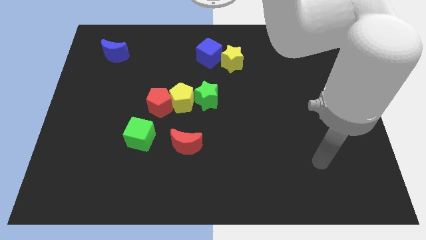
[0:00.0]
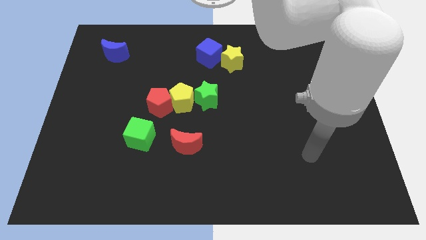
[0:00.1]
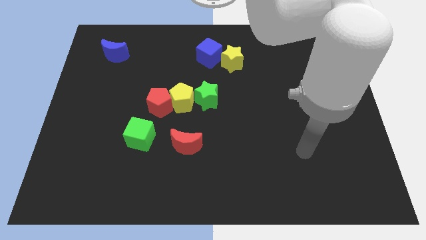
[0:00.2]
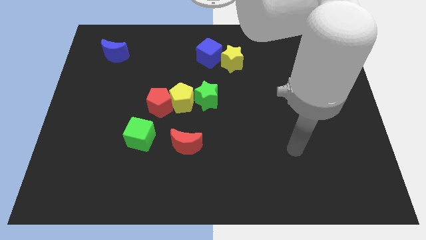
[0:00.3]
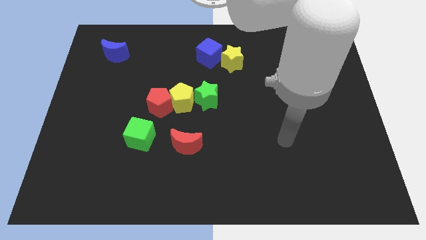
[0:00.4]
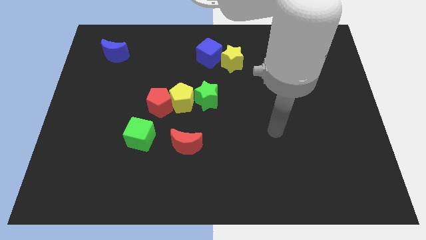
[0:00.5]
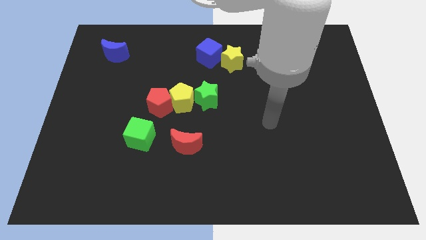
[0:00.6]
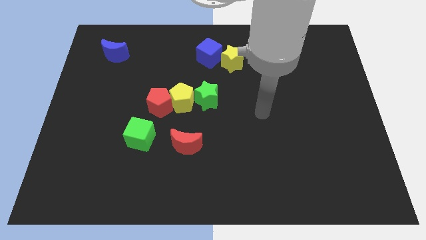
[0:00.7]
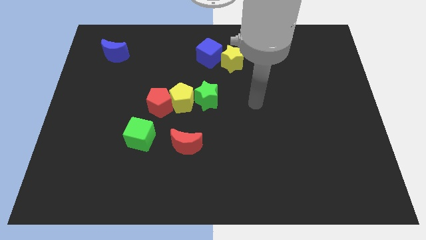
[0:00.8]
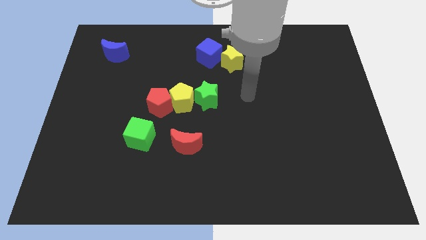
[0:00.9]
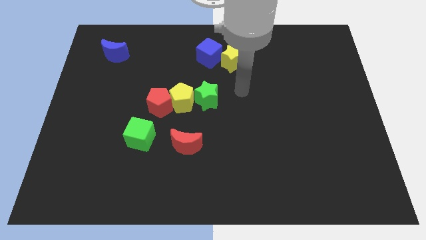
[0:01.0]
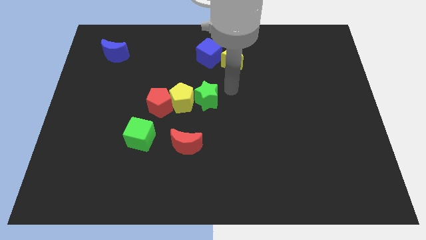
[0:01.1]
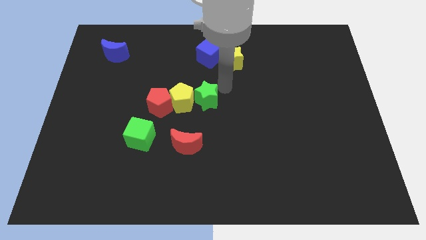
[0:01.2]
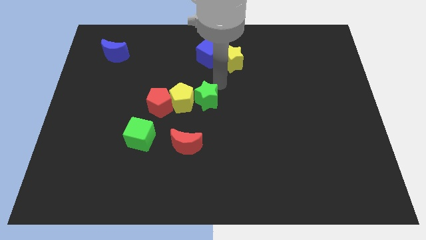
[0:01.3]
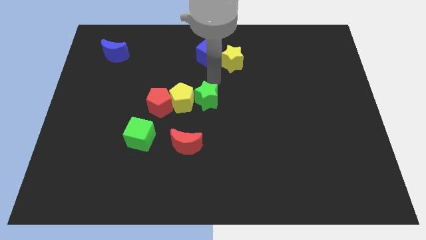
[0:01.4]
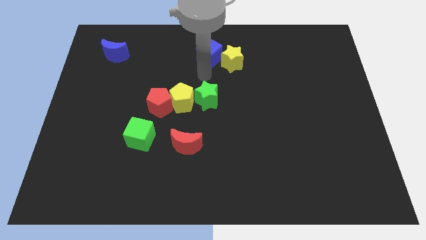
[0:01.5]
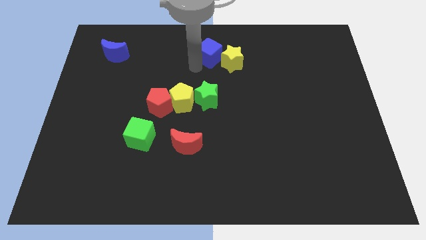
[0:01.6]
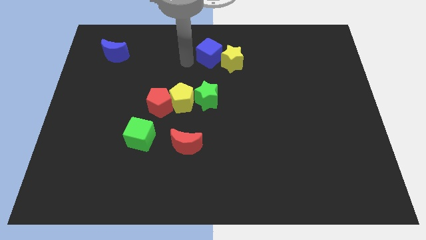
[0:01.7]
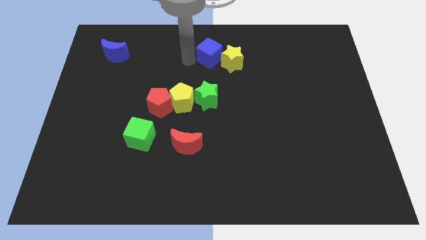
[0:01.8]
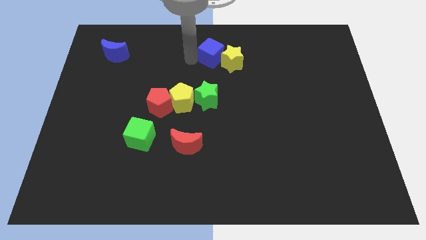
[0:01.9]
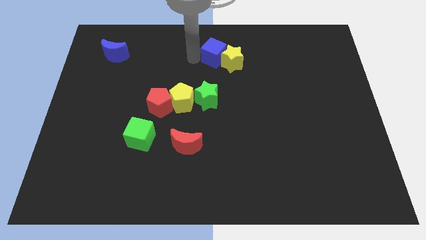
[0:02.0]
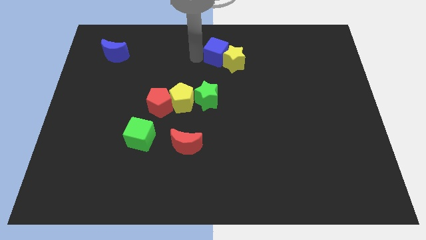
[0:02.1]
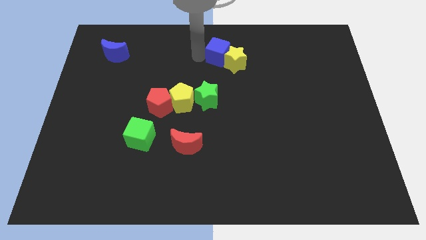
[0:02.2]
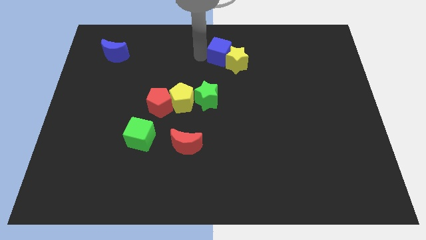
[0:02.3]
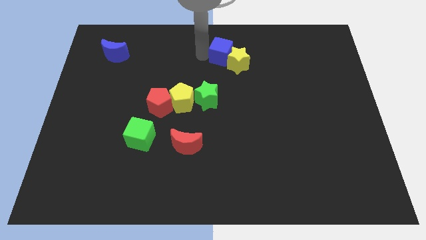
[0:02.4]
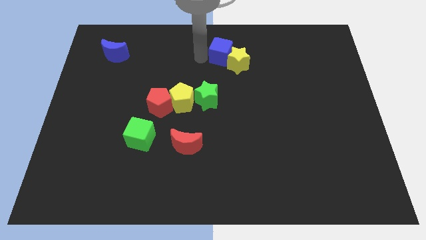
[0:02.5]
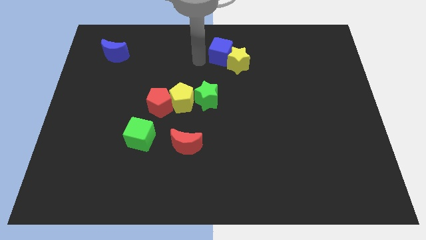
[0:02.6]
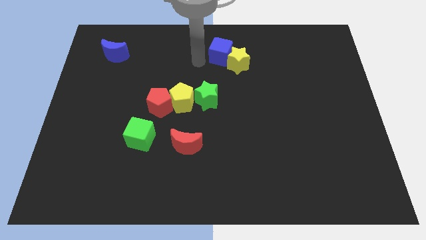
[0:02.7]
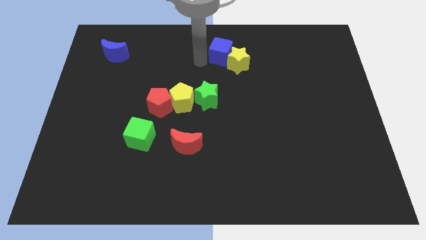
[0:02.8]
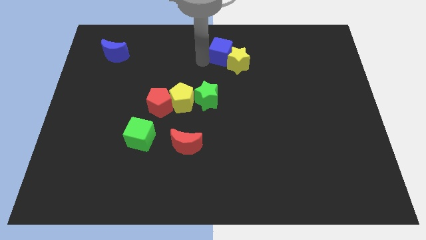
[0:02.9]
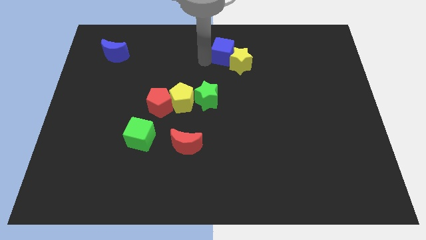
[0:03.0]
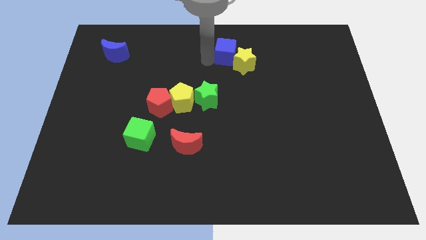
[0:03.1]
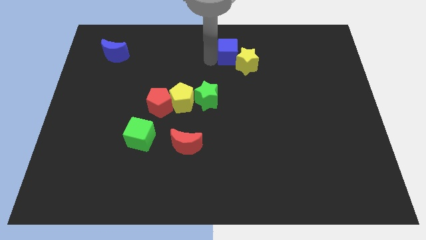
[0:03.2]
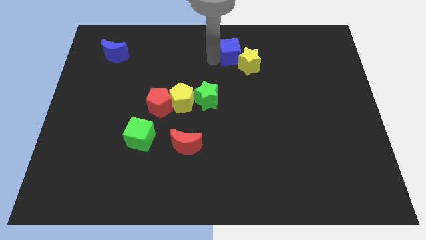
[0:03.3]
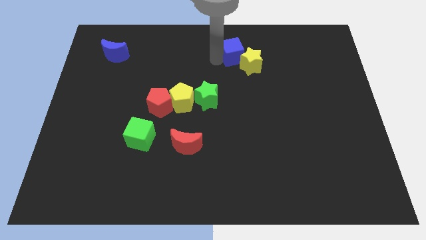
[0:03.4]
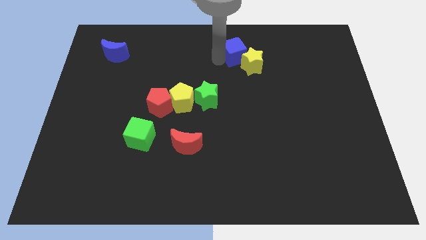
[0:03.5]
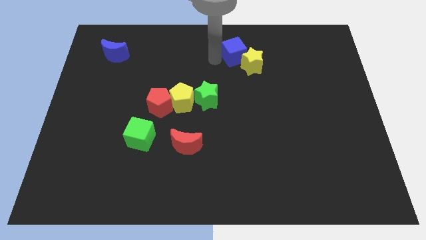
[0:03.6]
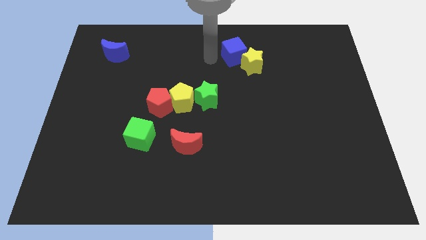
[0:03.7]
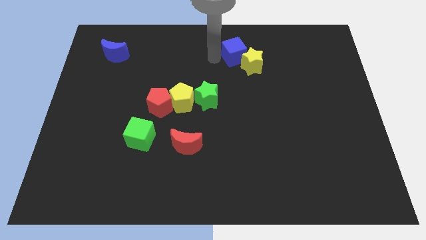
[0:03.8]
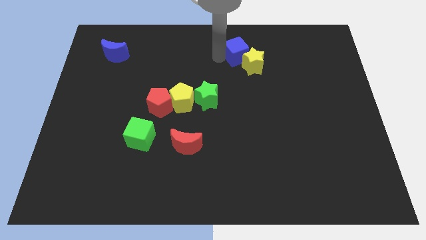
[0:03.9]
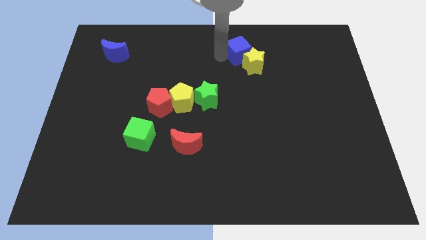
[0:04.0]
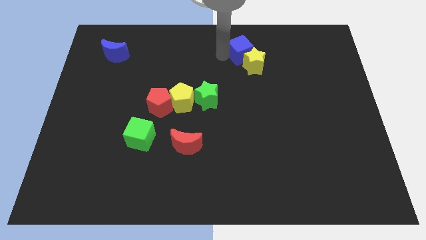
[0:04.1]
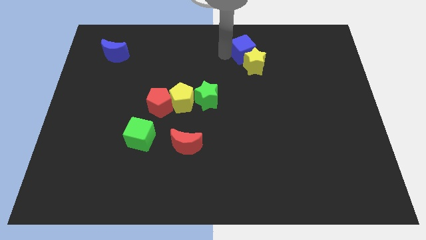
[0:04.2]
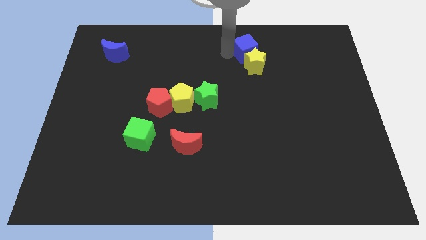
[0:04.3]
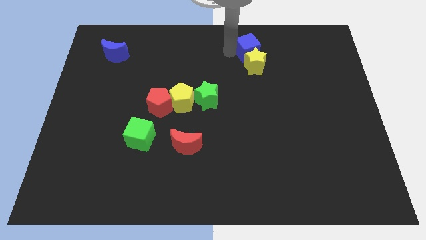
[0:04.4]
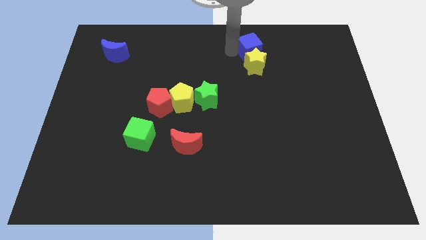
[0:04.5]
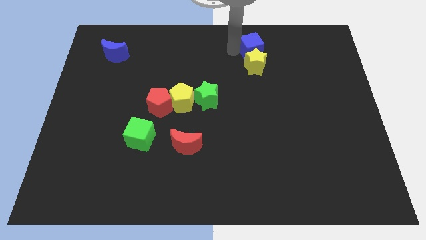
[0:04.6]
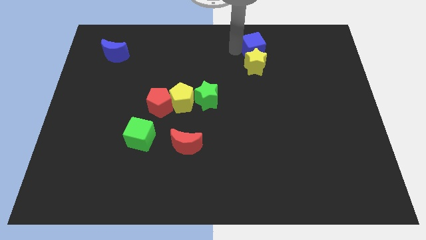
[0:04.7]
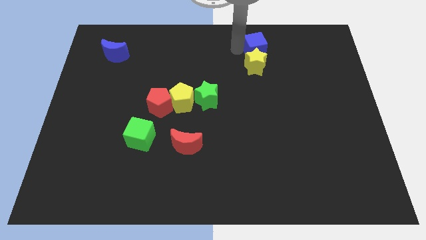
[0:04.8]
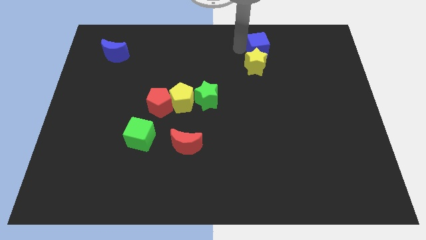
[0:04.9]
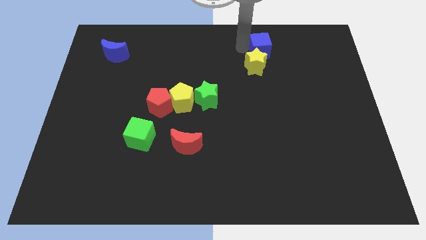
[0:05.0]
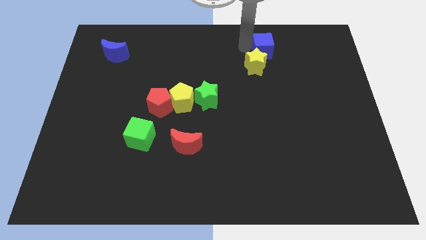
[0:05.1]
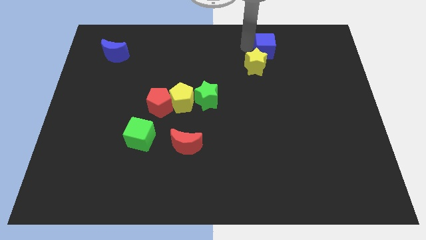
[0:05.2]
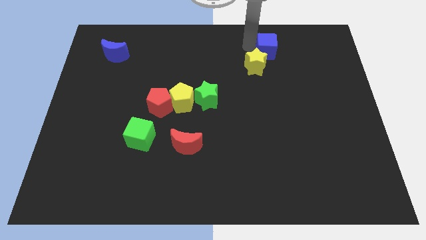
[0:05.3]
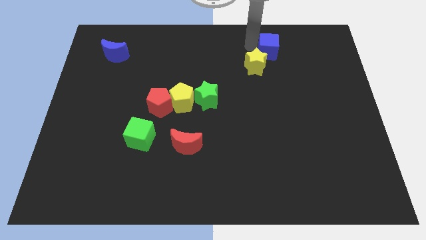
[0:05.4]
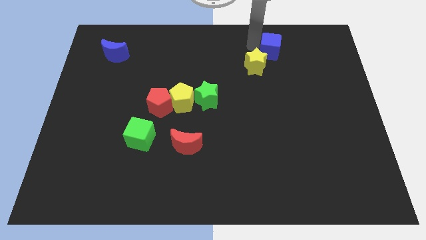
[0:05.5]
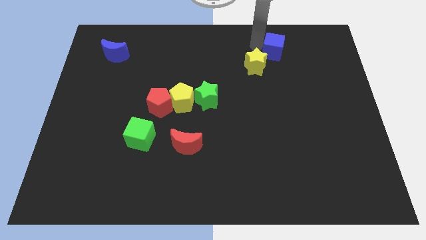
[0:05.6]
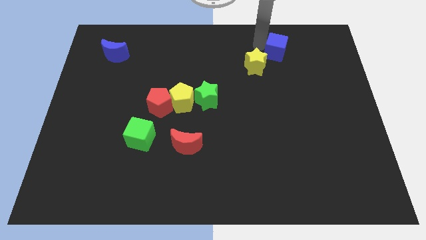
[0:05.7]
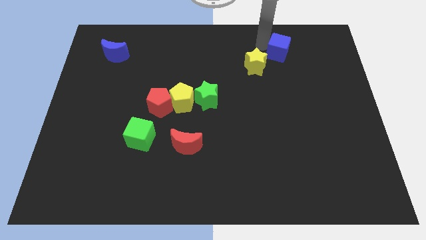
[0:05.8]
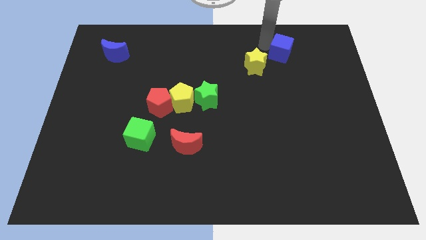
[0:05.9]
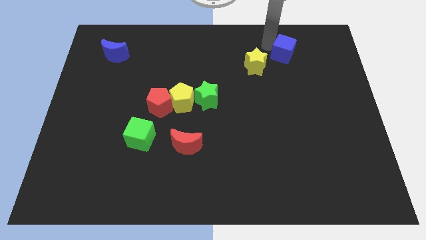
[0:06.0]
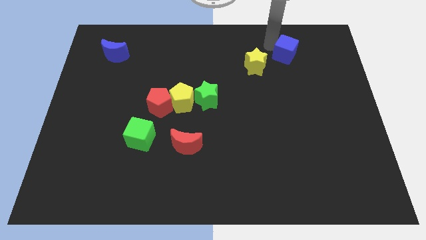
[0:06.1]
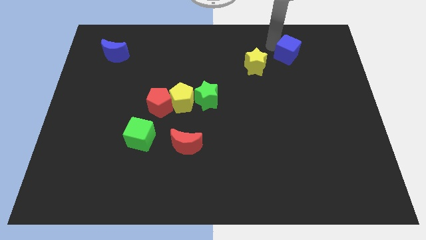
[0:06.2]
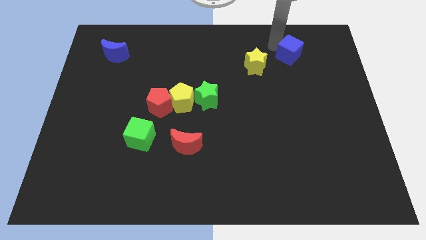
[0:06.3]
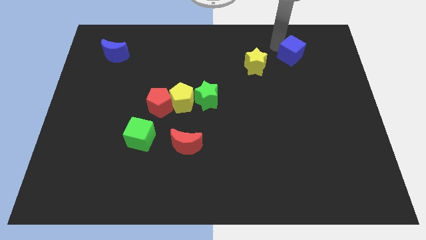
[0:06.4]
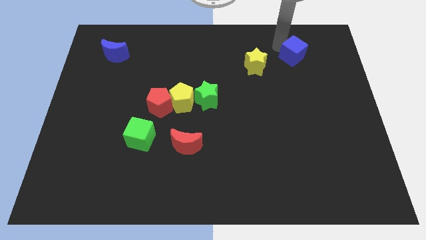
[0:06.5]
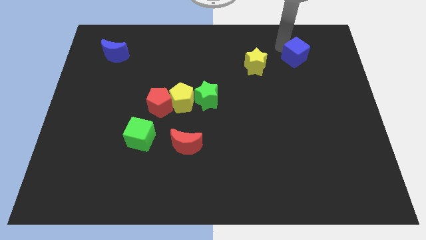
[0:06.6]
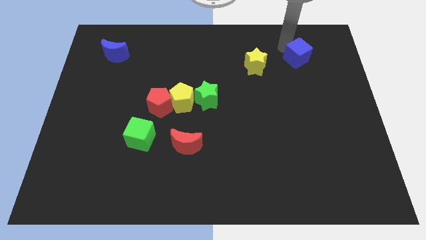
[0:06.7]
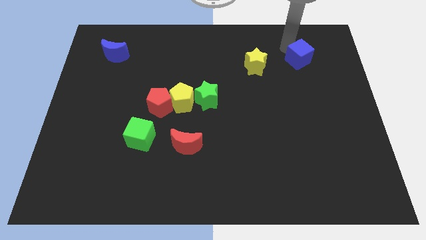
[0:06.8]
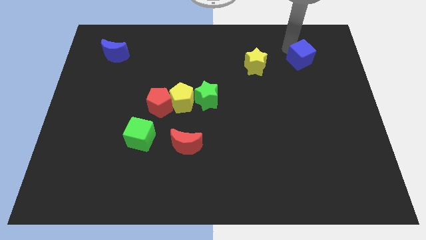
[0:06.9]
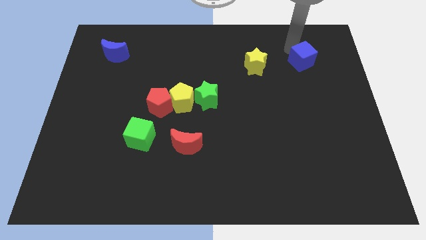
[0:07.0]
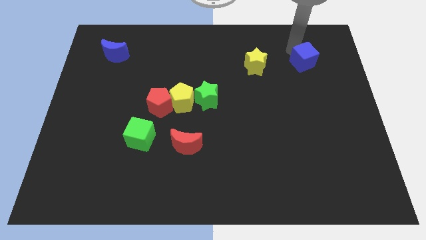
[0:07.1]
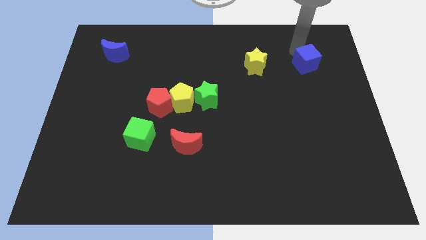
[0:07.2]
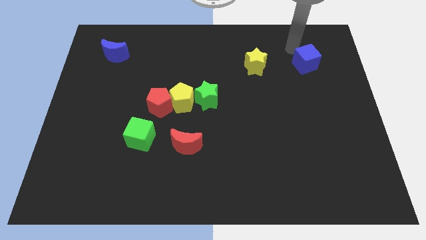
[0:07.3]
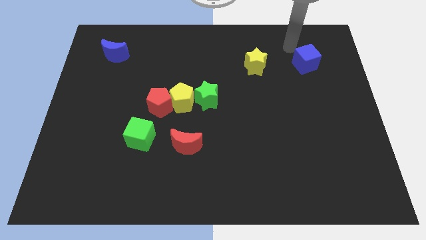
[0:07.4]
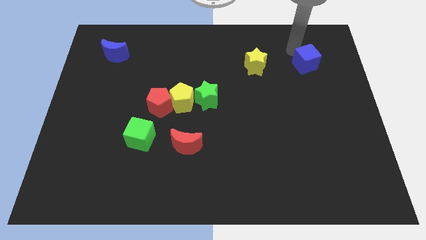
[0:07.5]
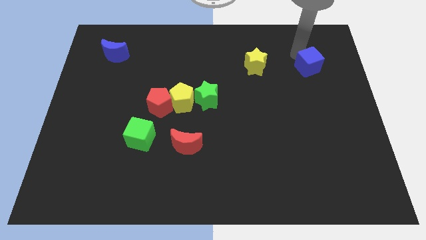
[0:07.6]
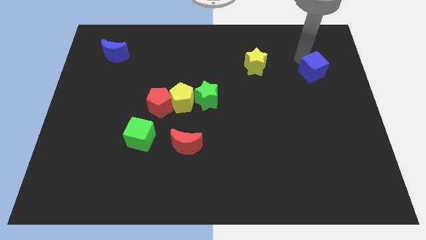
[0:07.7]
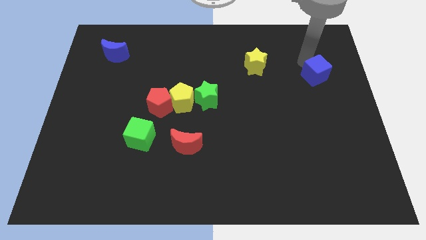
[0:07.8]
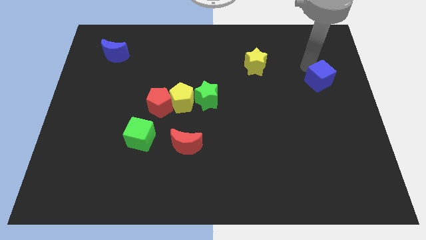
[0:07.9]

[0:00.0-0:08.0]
slide the blue cube to the right side of the board
